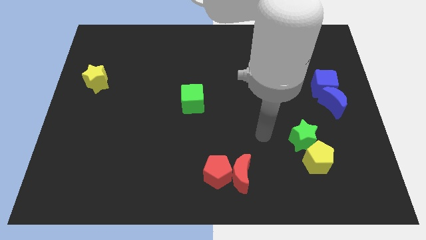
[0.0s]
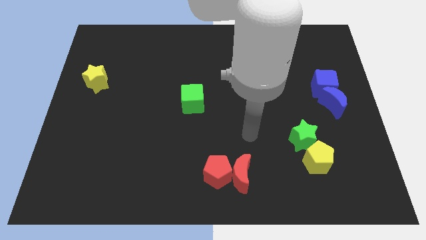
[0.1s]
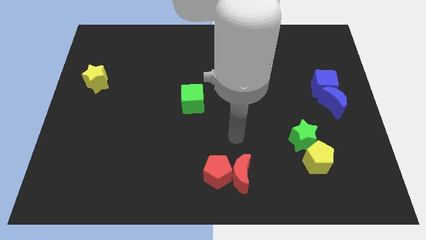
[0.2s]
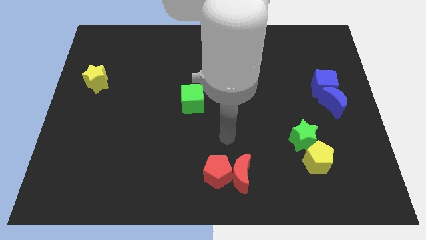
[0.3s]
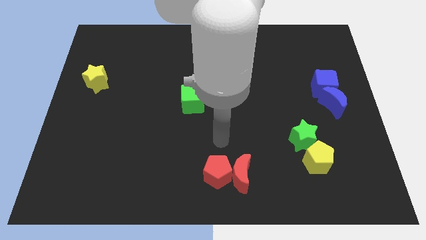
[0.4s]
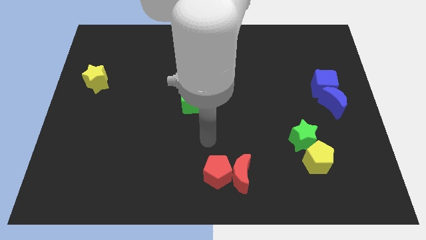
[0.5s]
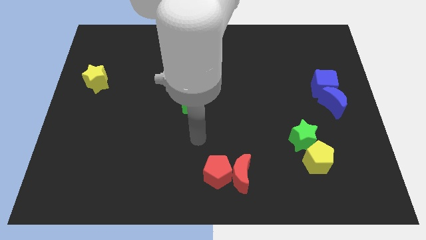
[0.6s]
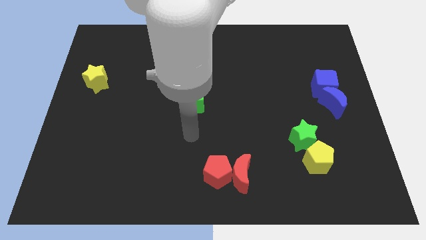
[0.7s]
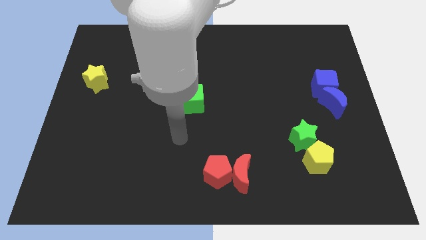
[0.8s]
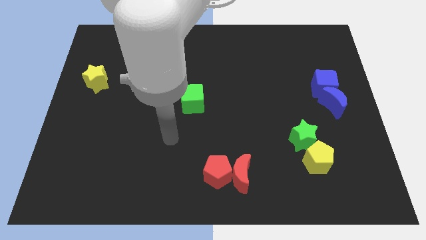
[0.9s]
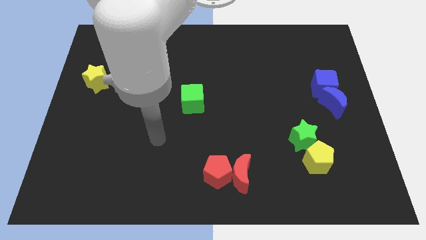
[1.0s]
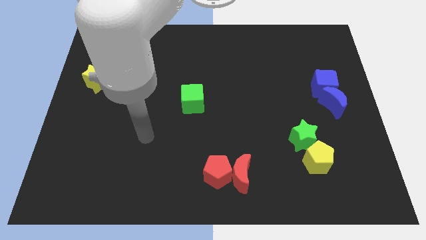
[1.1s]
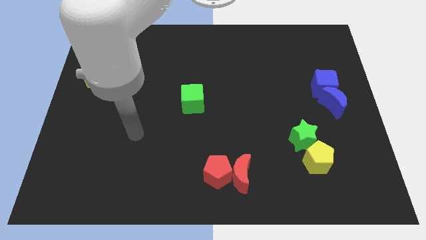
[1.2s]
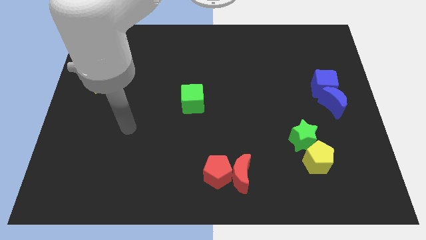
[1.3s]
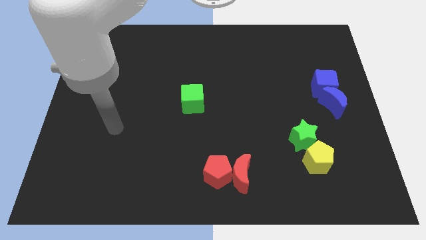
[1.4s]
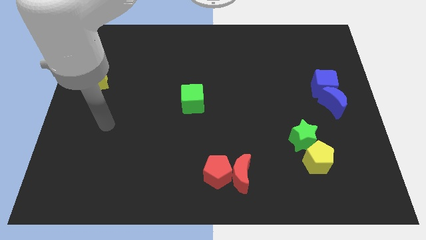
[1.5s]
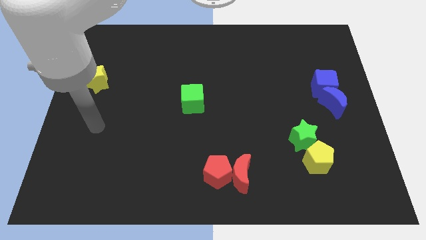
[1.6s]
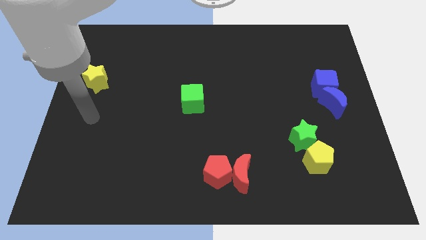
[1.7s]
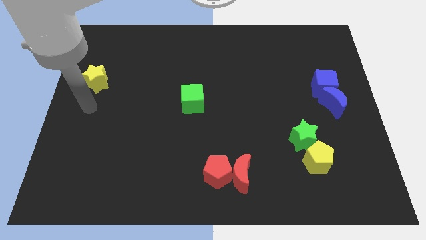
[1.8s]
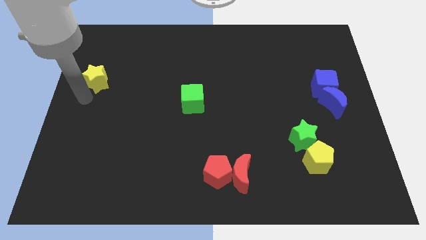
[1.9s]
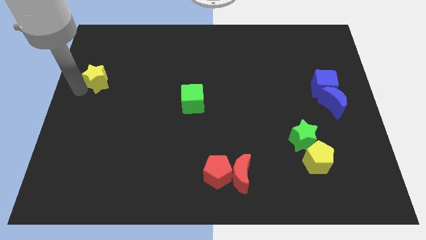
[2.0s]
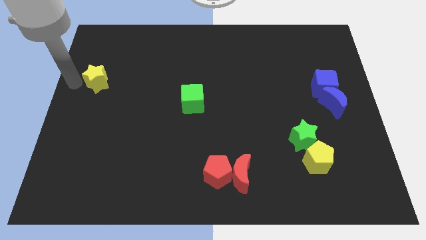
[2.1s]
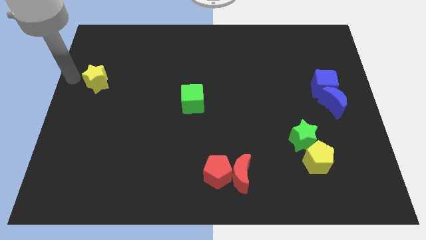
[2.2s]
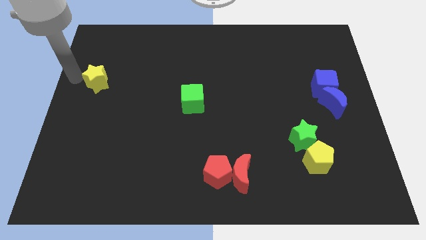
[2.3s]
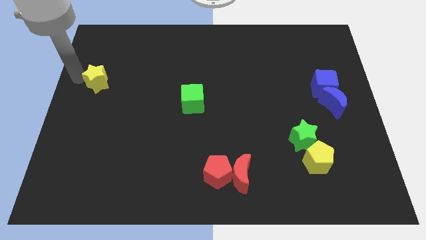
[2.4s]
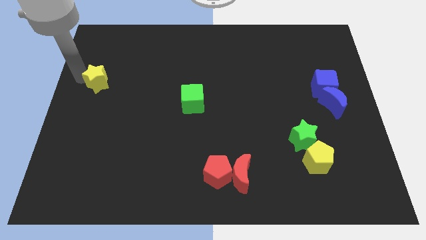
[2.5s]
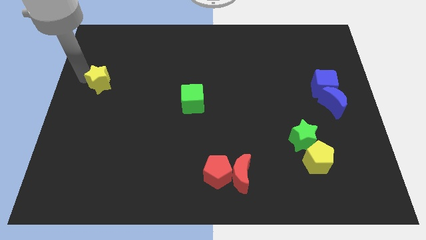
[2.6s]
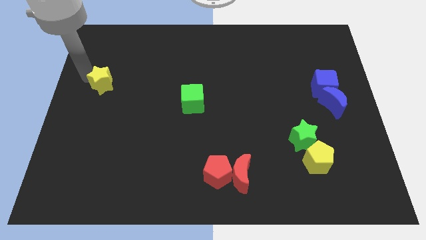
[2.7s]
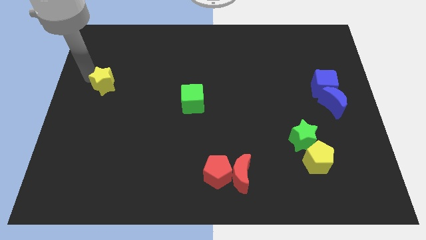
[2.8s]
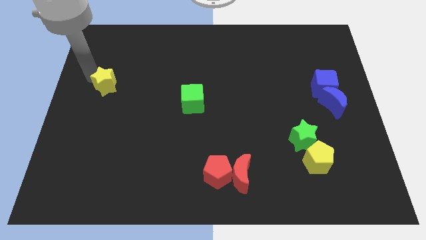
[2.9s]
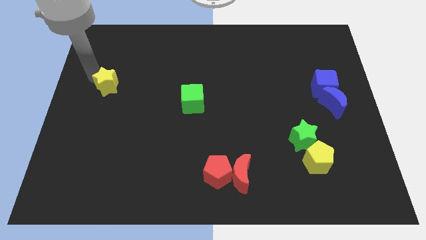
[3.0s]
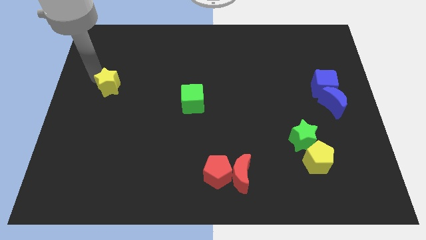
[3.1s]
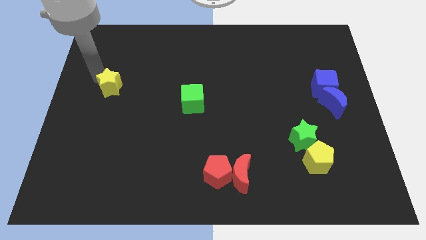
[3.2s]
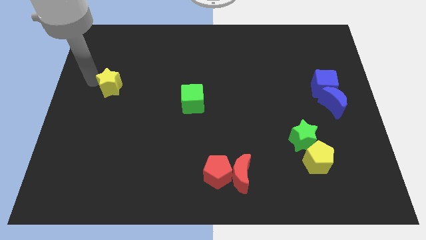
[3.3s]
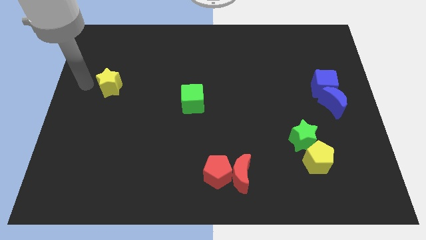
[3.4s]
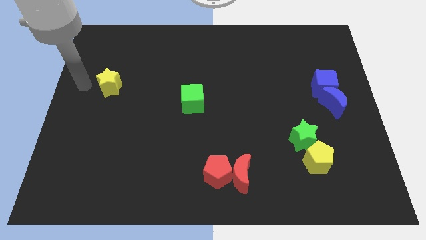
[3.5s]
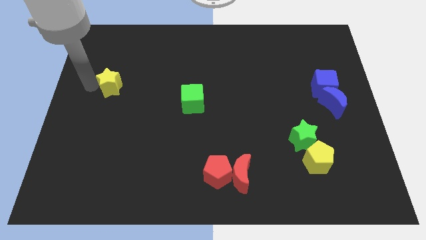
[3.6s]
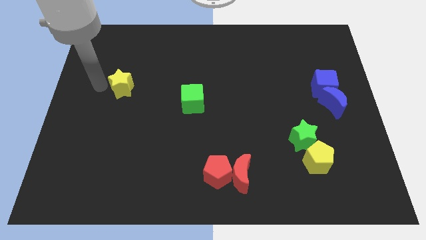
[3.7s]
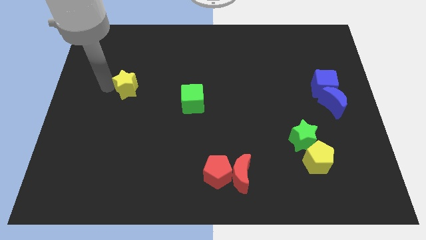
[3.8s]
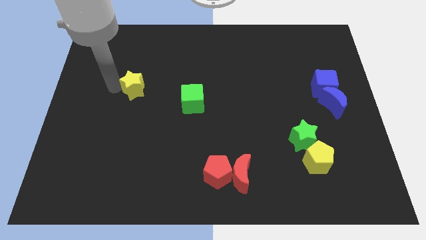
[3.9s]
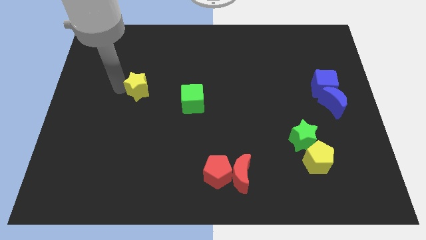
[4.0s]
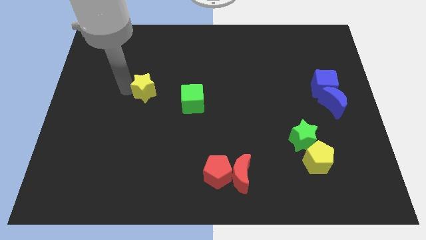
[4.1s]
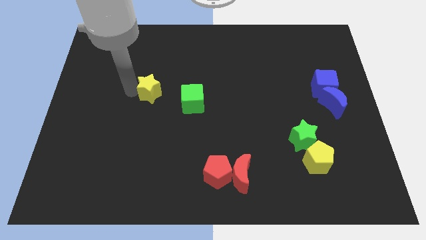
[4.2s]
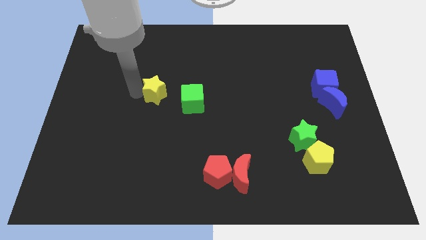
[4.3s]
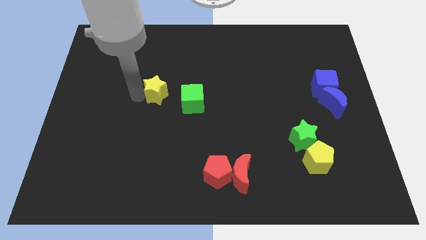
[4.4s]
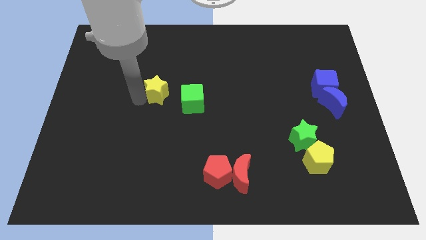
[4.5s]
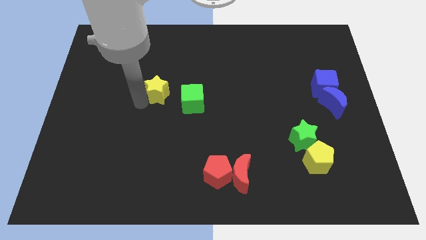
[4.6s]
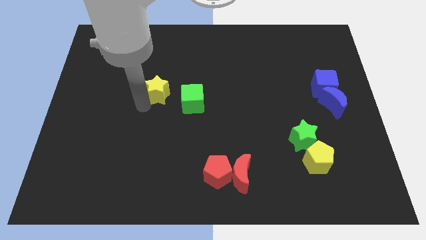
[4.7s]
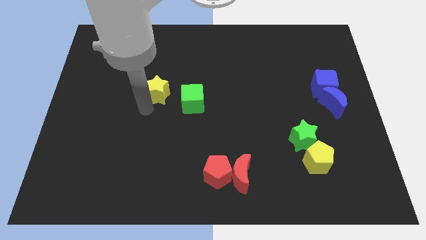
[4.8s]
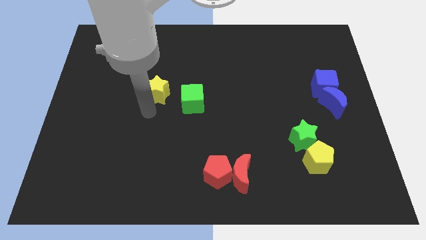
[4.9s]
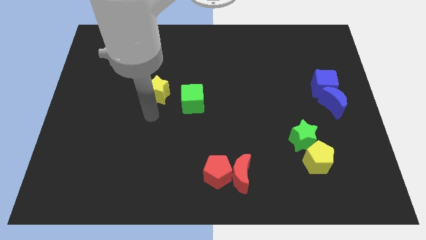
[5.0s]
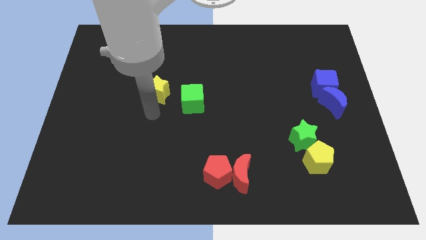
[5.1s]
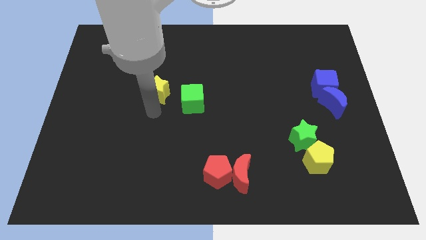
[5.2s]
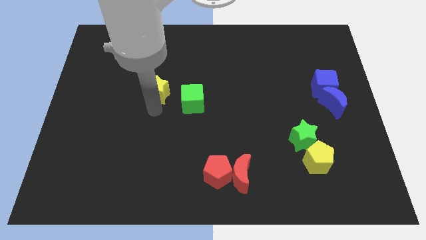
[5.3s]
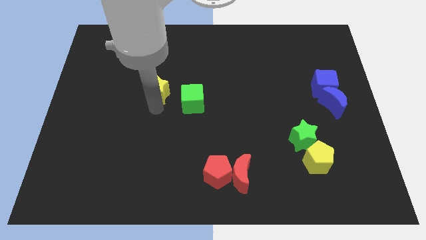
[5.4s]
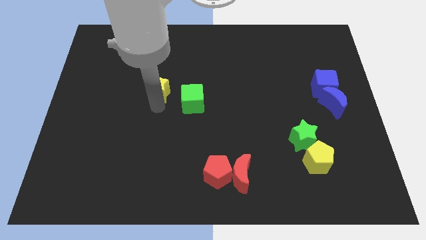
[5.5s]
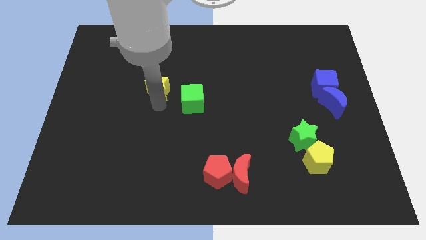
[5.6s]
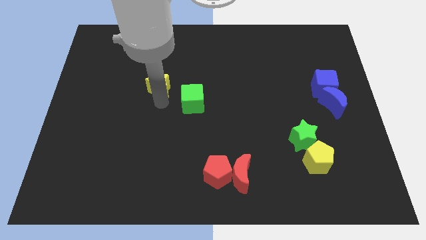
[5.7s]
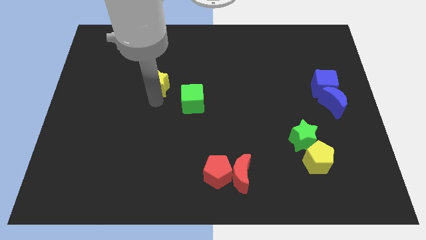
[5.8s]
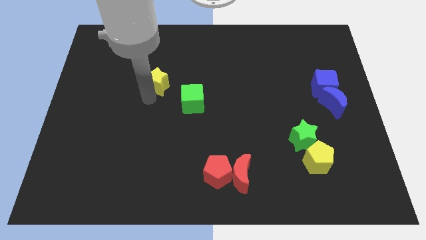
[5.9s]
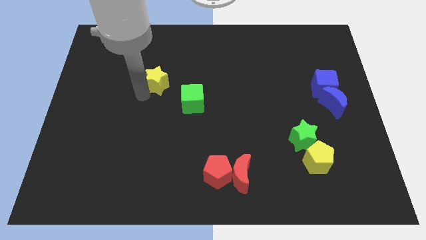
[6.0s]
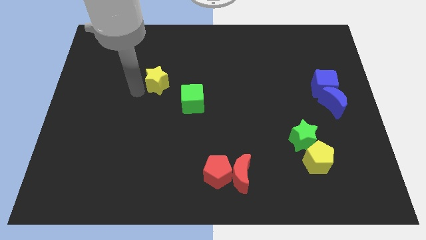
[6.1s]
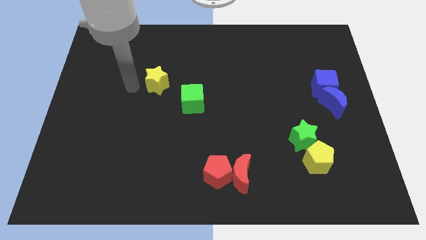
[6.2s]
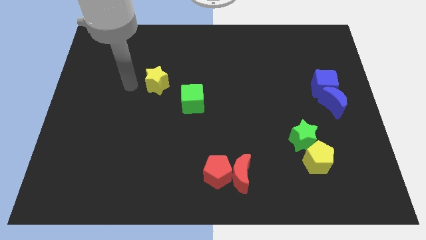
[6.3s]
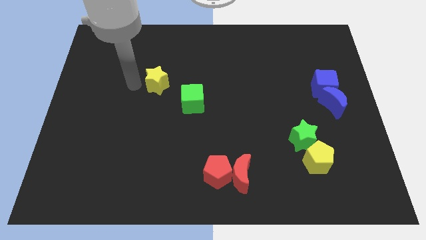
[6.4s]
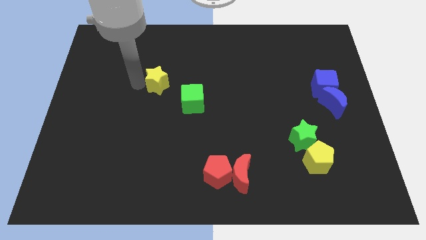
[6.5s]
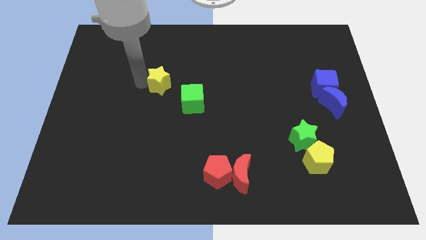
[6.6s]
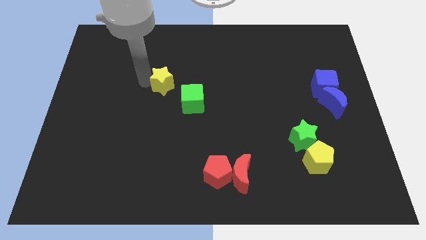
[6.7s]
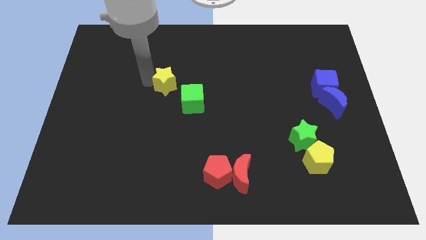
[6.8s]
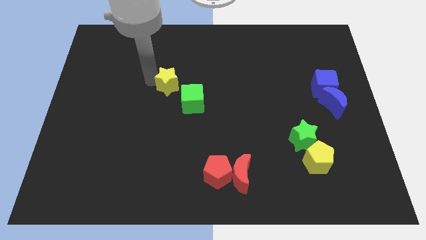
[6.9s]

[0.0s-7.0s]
put the yellow star to the center
